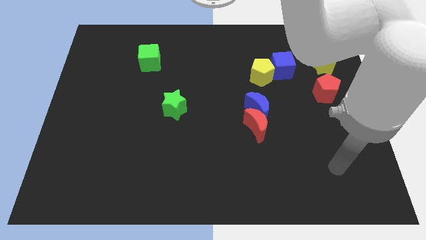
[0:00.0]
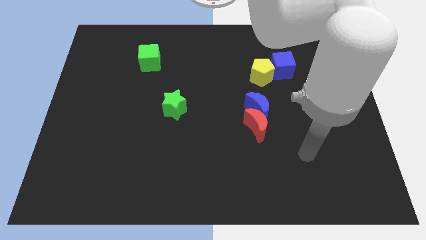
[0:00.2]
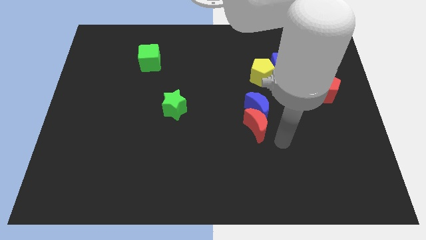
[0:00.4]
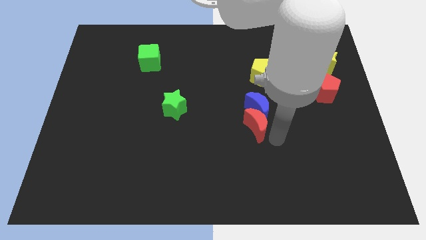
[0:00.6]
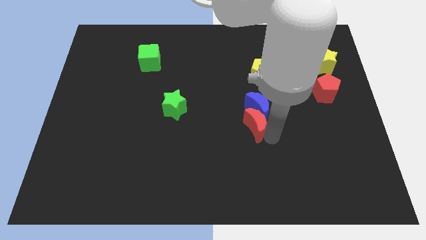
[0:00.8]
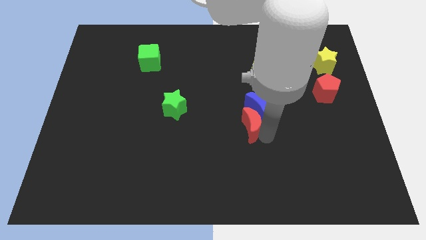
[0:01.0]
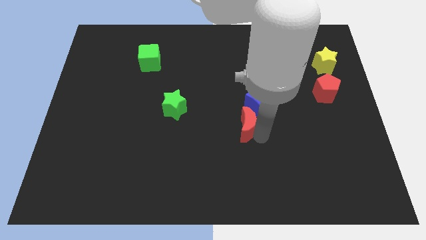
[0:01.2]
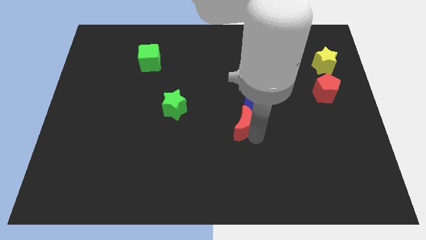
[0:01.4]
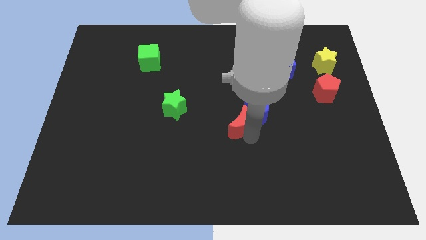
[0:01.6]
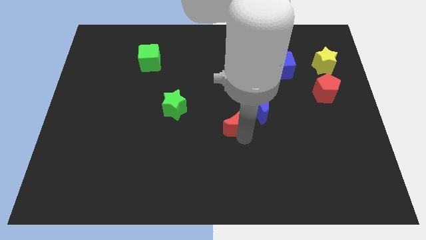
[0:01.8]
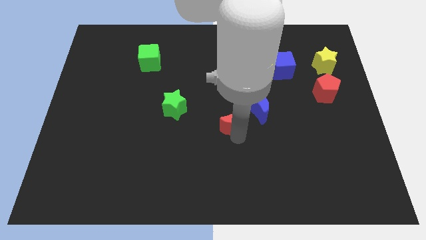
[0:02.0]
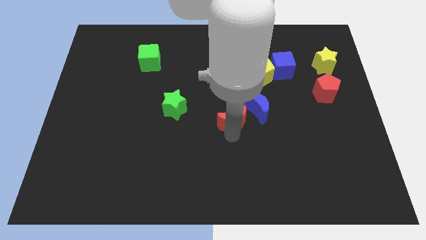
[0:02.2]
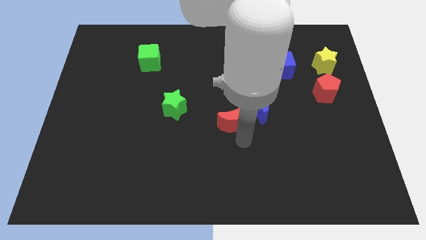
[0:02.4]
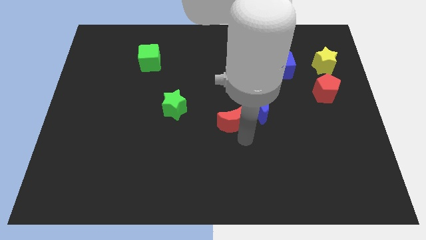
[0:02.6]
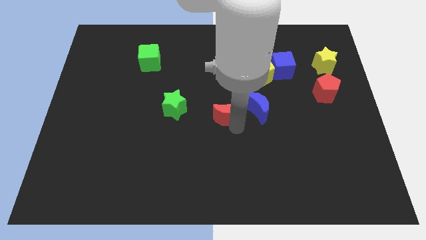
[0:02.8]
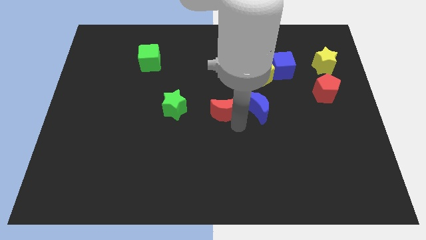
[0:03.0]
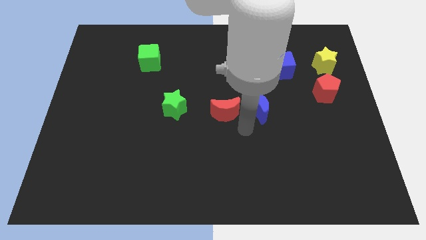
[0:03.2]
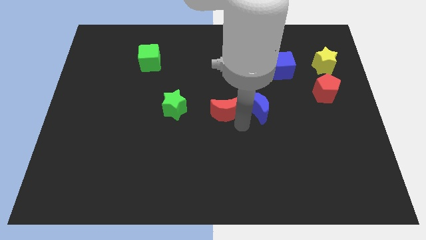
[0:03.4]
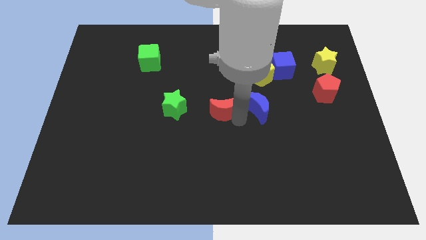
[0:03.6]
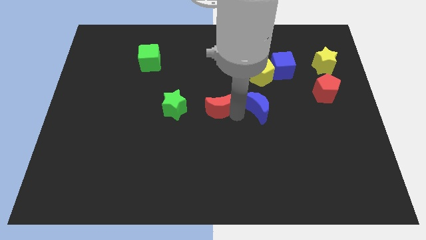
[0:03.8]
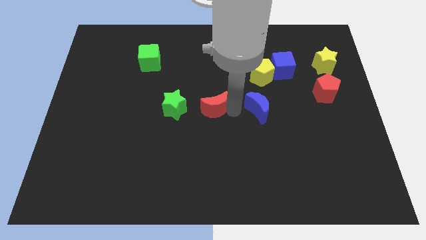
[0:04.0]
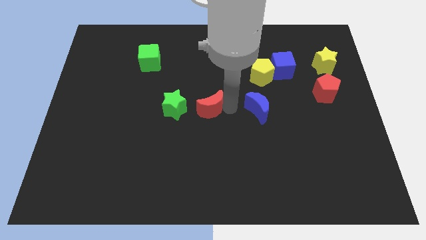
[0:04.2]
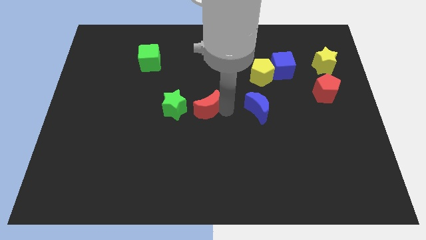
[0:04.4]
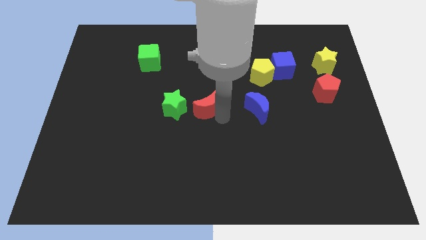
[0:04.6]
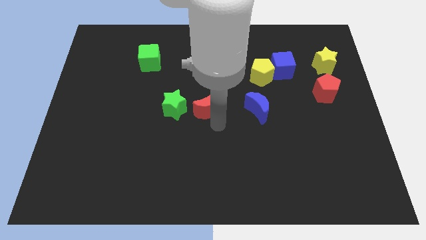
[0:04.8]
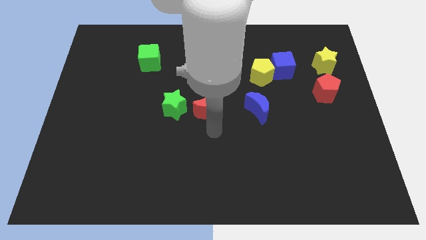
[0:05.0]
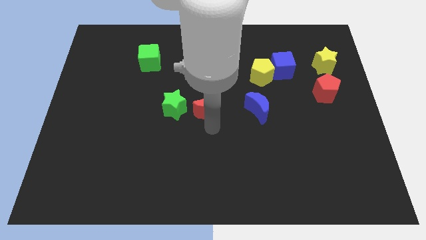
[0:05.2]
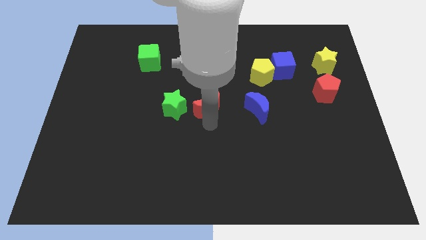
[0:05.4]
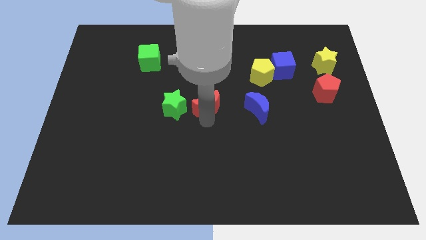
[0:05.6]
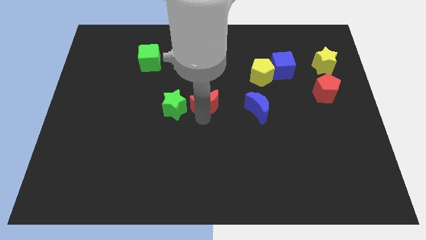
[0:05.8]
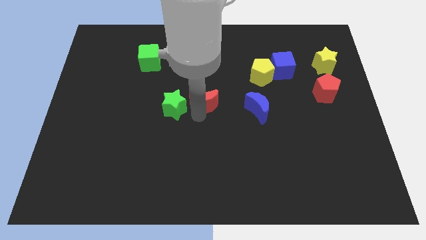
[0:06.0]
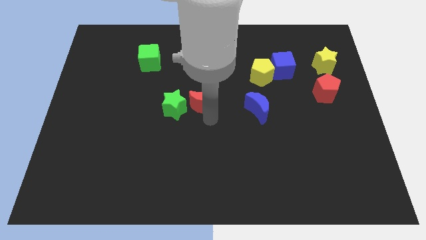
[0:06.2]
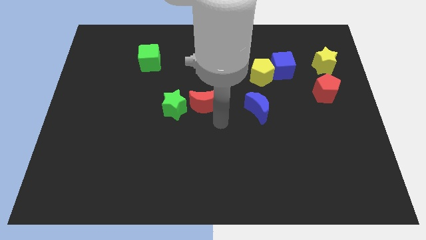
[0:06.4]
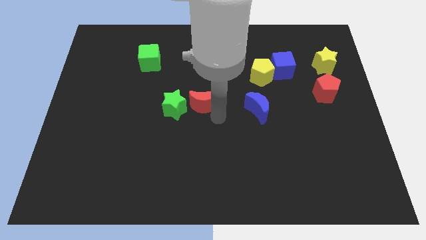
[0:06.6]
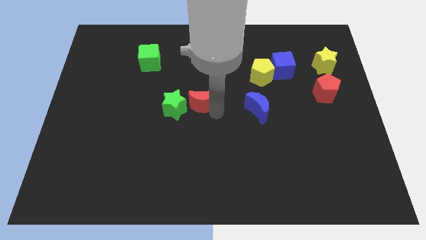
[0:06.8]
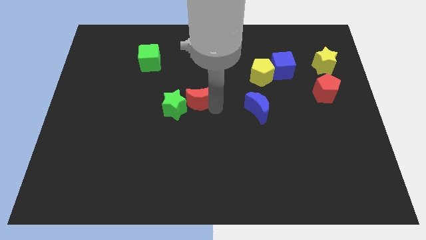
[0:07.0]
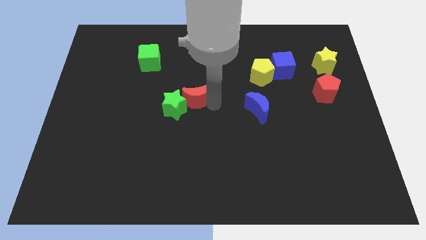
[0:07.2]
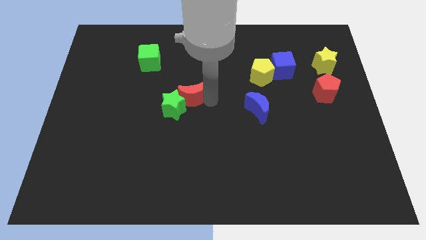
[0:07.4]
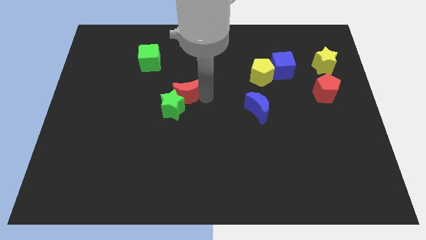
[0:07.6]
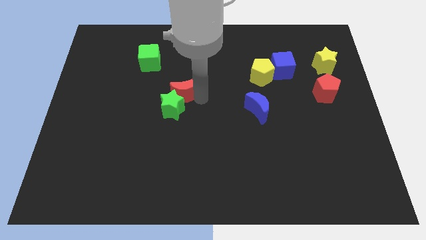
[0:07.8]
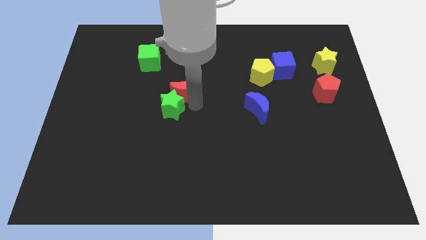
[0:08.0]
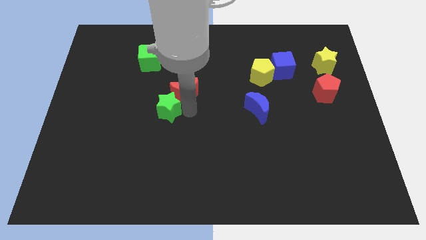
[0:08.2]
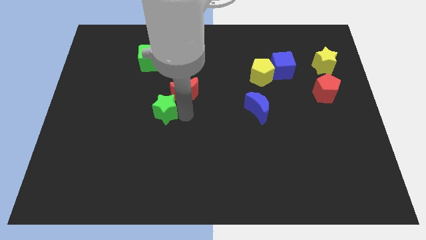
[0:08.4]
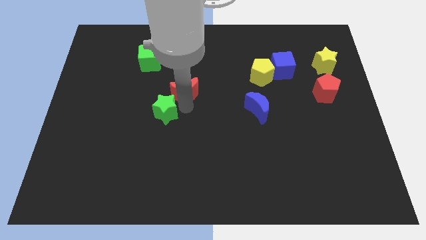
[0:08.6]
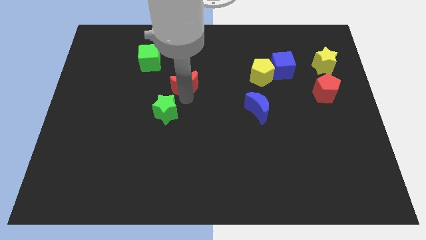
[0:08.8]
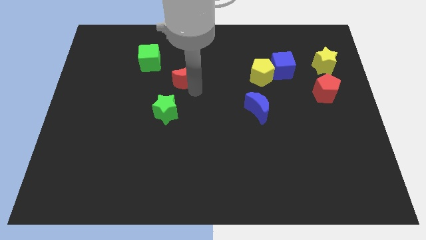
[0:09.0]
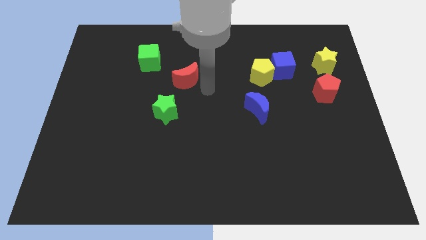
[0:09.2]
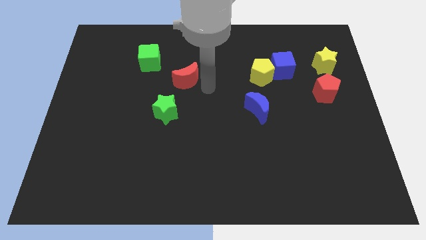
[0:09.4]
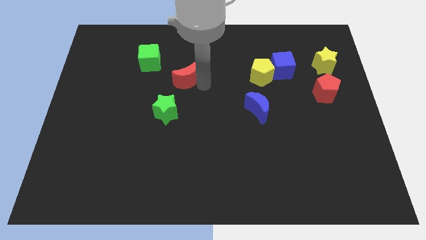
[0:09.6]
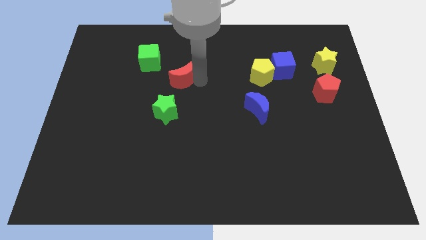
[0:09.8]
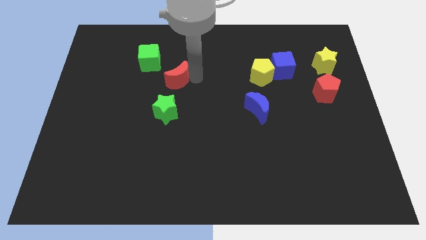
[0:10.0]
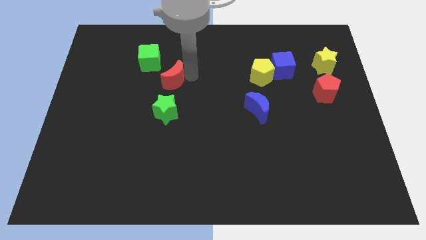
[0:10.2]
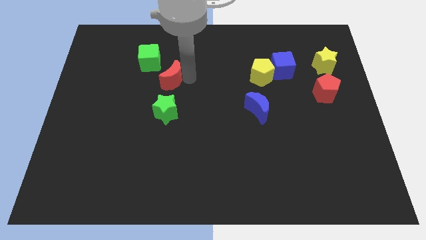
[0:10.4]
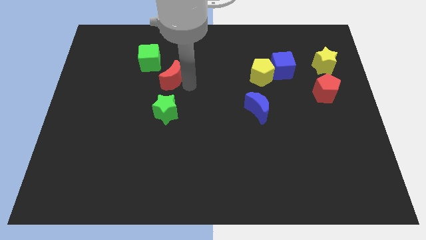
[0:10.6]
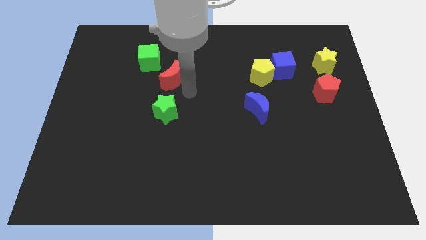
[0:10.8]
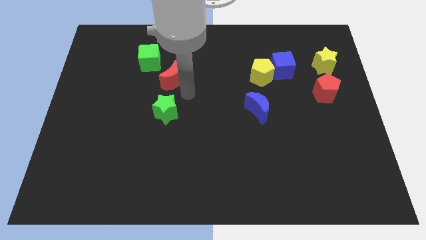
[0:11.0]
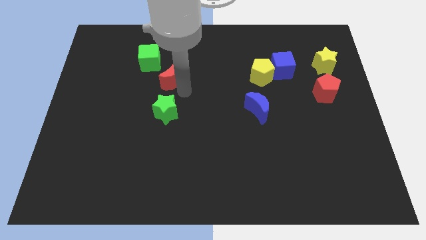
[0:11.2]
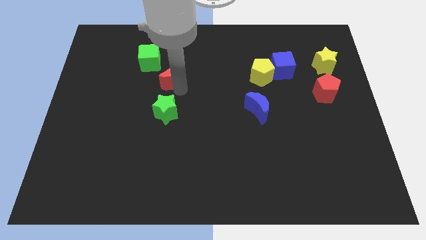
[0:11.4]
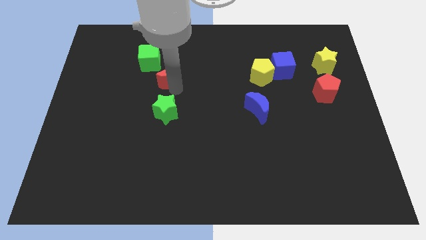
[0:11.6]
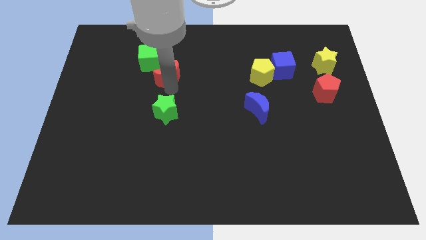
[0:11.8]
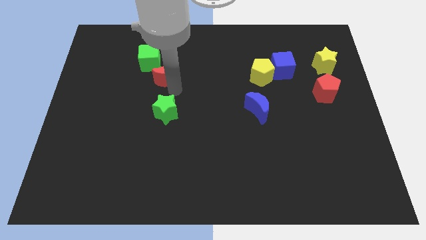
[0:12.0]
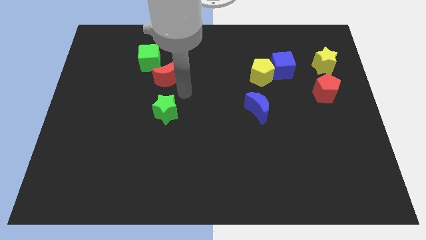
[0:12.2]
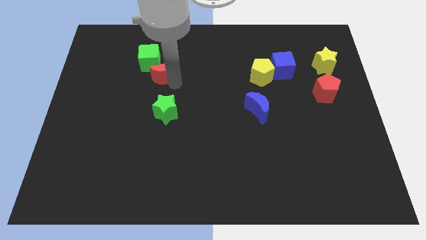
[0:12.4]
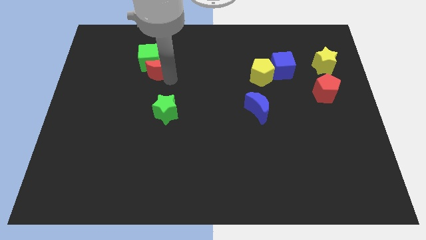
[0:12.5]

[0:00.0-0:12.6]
push the red moon to the green cube

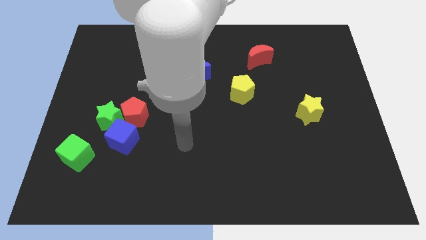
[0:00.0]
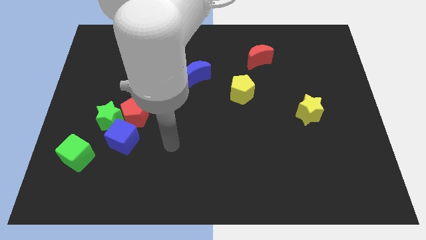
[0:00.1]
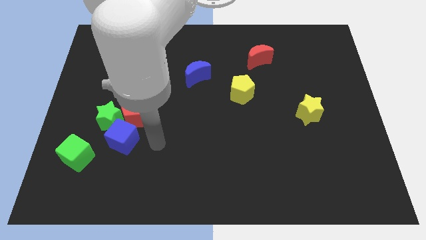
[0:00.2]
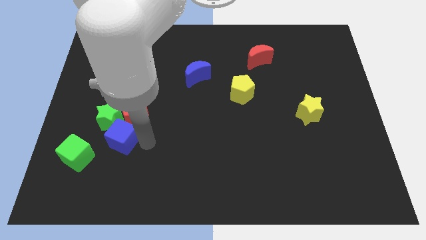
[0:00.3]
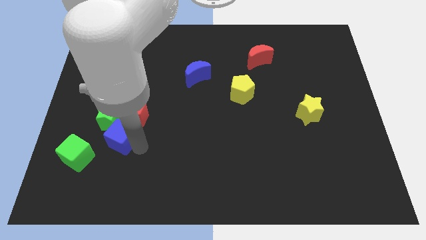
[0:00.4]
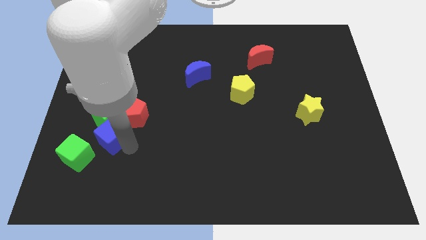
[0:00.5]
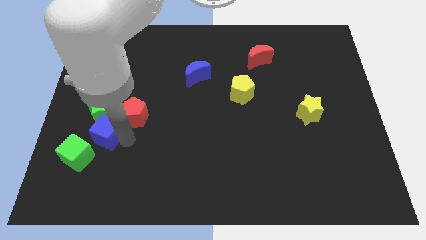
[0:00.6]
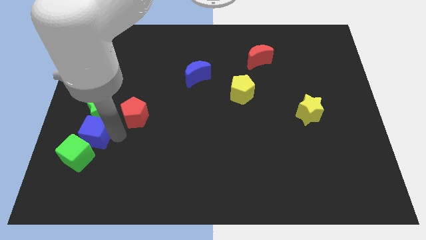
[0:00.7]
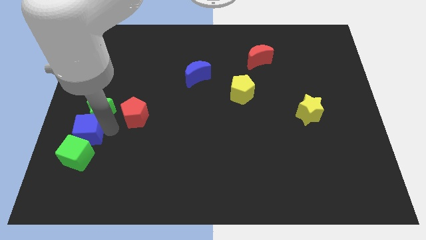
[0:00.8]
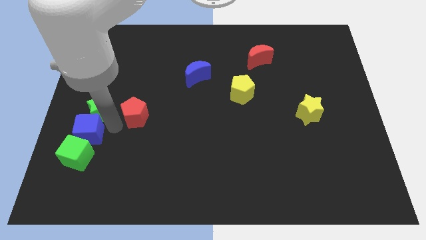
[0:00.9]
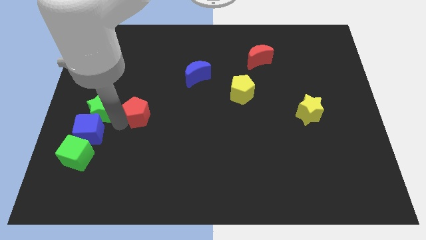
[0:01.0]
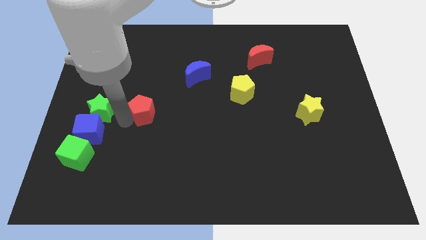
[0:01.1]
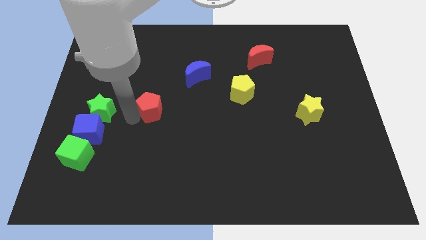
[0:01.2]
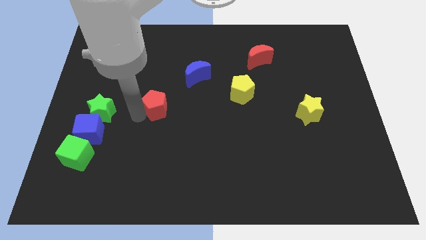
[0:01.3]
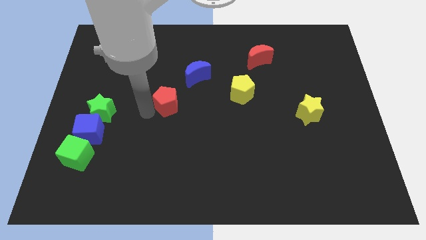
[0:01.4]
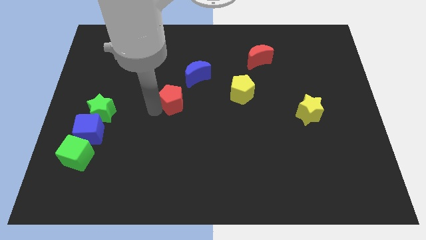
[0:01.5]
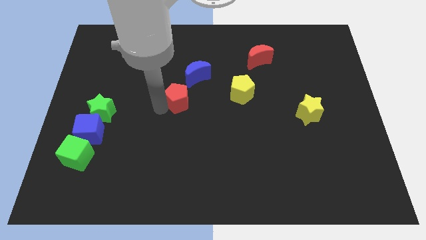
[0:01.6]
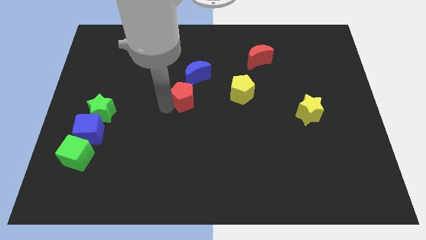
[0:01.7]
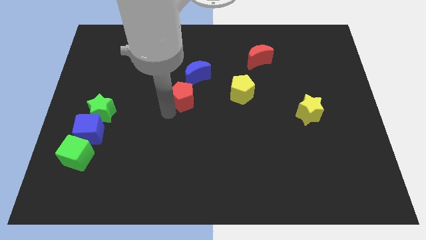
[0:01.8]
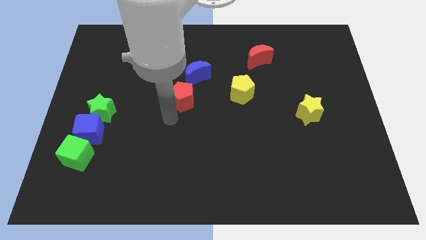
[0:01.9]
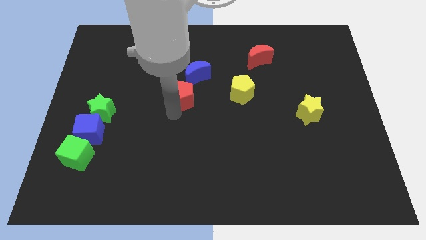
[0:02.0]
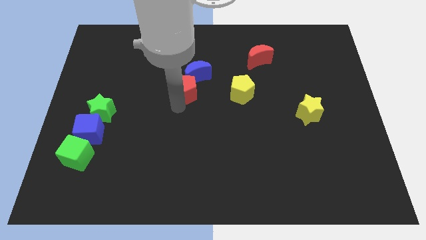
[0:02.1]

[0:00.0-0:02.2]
slide the red pentagon next to the blue moon
